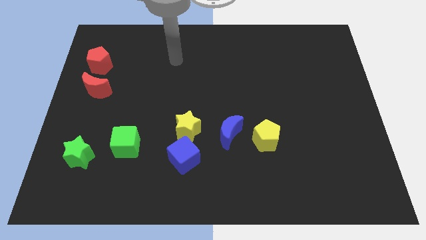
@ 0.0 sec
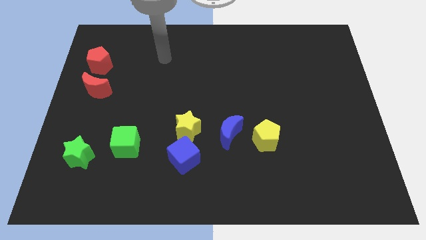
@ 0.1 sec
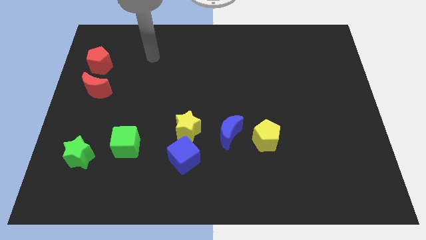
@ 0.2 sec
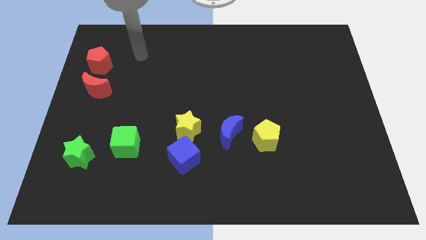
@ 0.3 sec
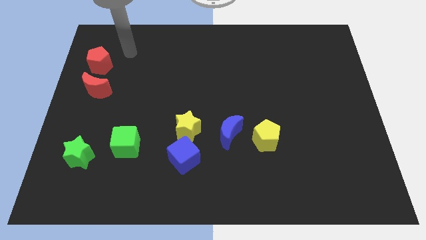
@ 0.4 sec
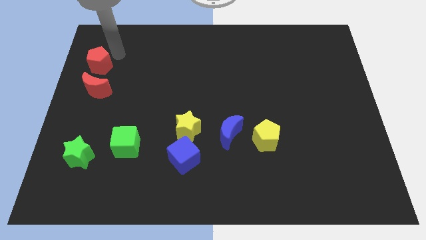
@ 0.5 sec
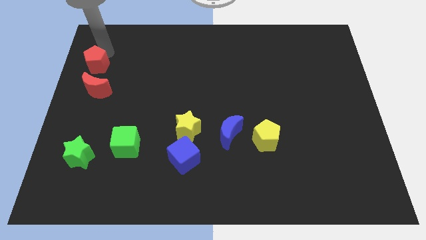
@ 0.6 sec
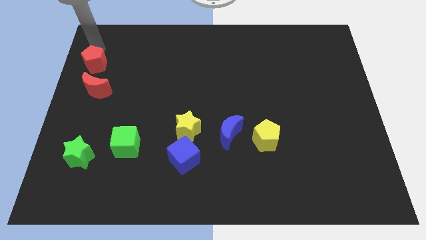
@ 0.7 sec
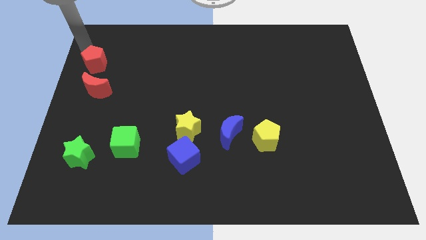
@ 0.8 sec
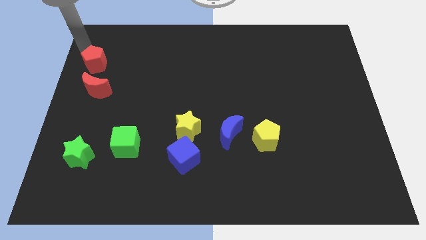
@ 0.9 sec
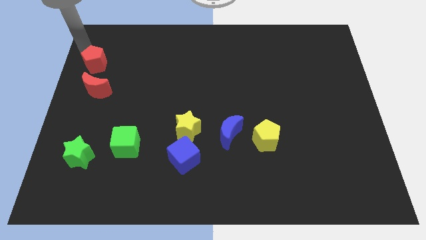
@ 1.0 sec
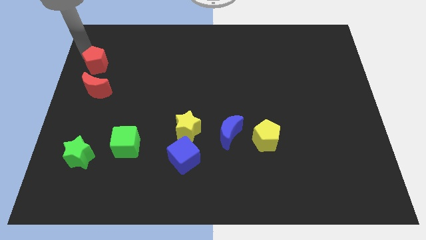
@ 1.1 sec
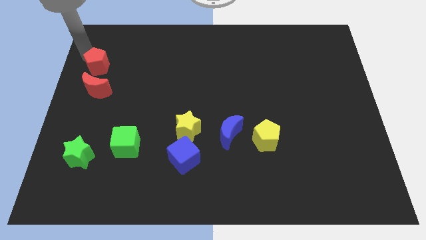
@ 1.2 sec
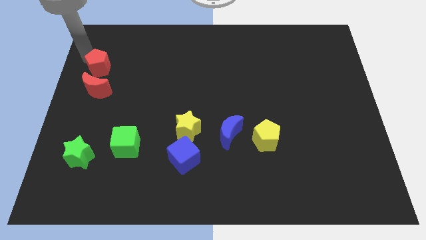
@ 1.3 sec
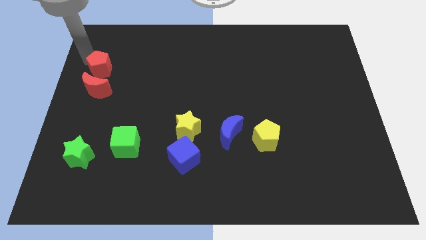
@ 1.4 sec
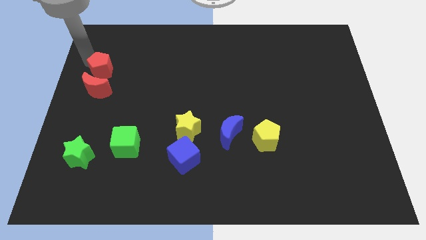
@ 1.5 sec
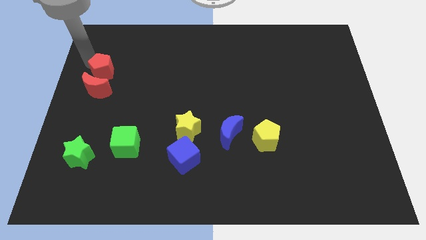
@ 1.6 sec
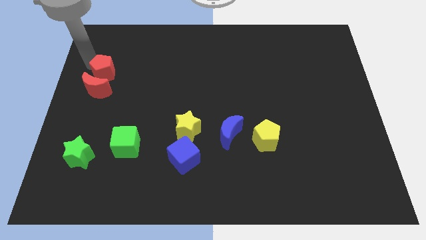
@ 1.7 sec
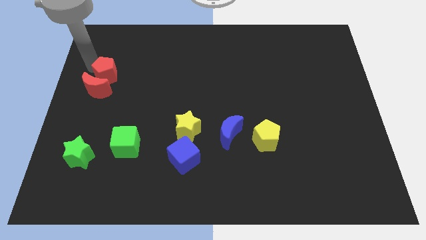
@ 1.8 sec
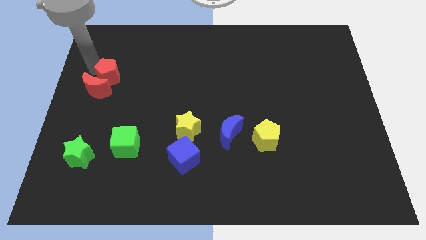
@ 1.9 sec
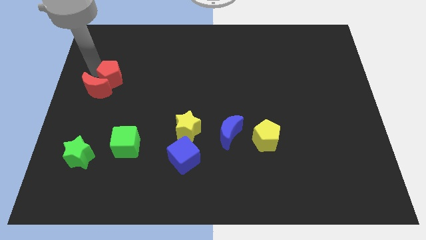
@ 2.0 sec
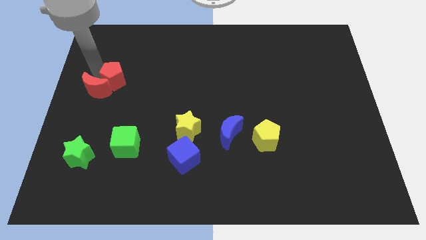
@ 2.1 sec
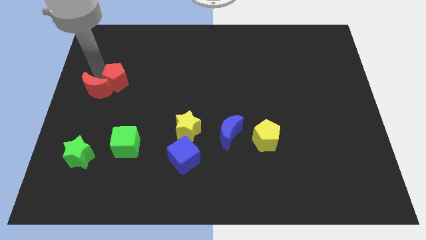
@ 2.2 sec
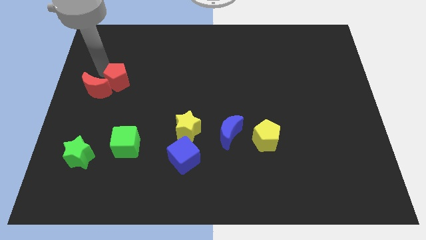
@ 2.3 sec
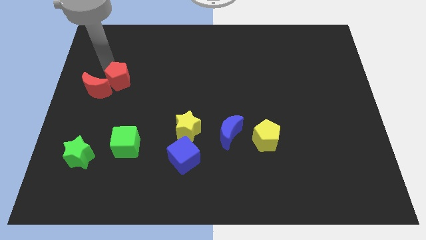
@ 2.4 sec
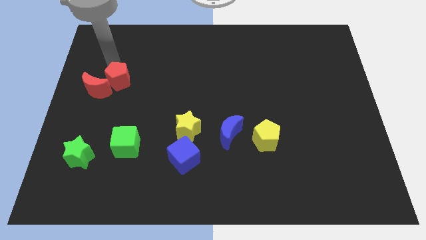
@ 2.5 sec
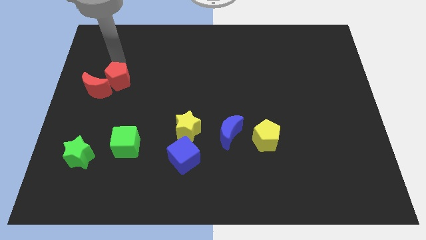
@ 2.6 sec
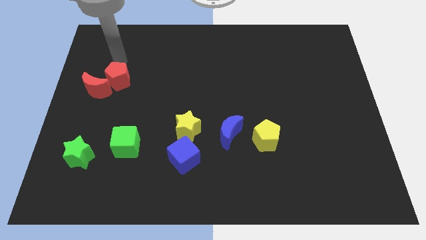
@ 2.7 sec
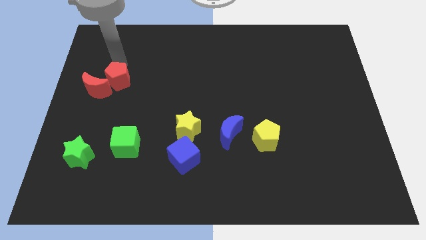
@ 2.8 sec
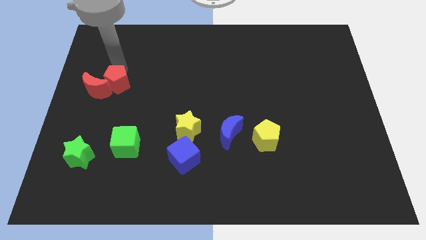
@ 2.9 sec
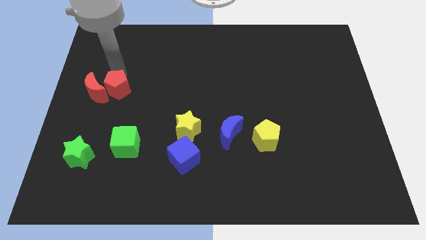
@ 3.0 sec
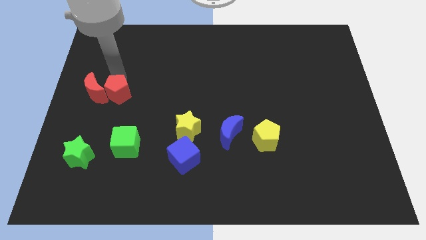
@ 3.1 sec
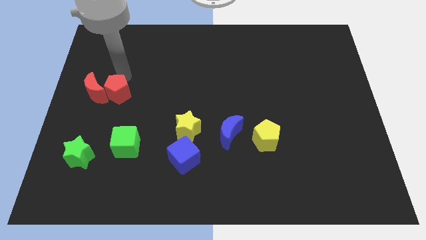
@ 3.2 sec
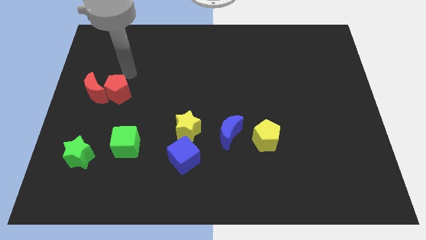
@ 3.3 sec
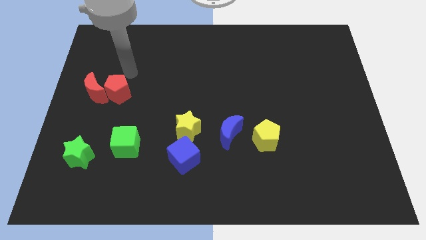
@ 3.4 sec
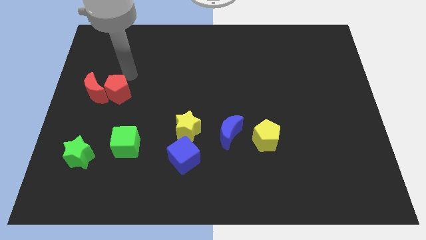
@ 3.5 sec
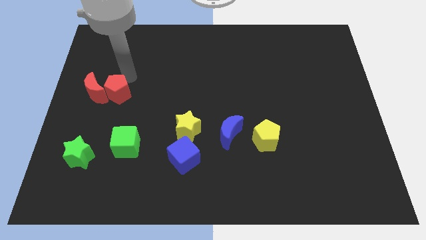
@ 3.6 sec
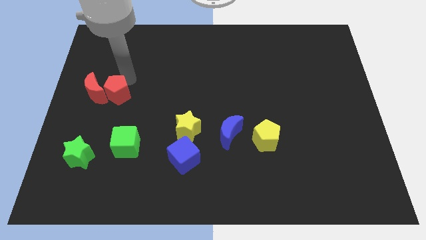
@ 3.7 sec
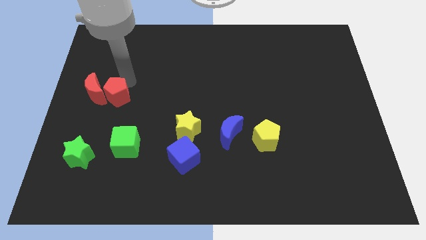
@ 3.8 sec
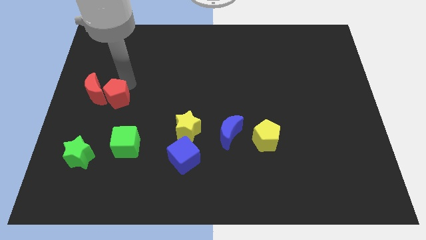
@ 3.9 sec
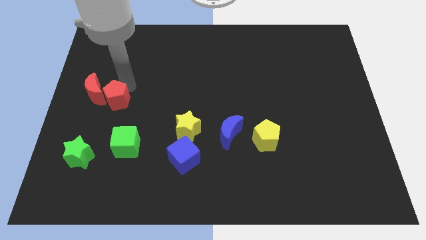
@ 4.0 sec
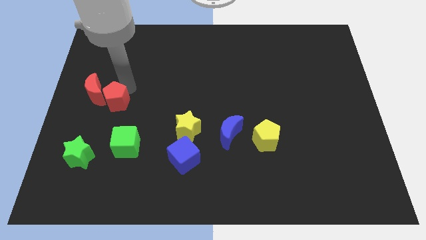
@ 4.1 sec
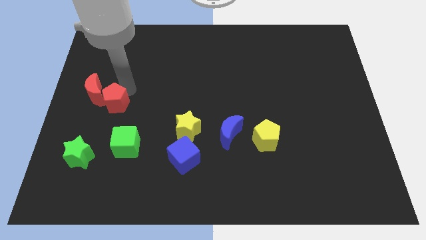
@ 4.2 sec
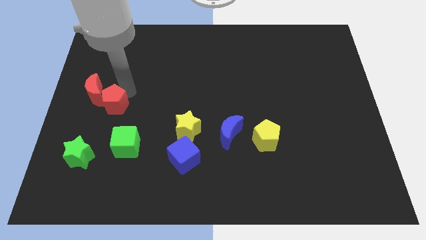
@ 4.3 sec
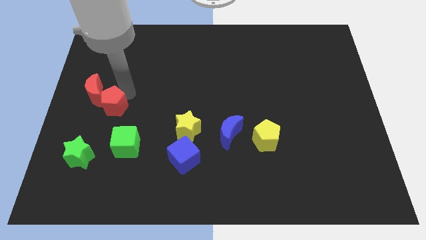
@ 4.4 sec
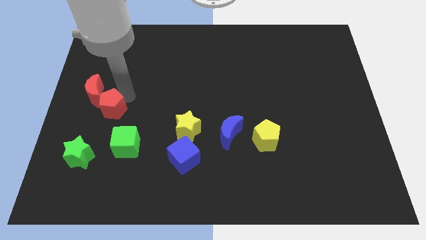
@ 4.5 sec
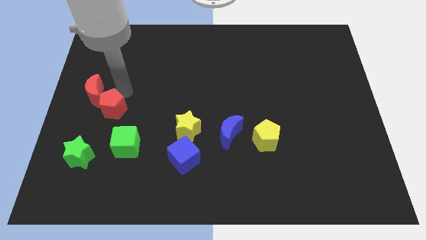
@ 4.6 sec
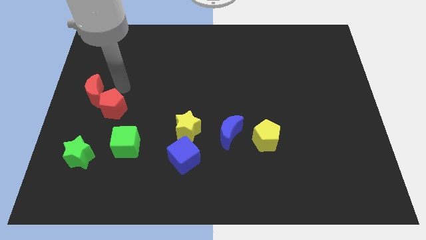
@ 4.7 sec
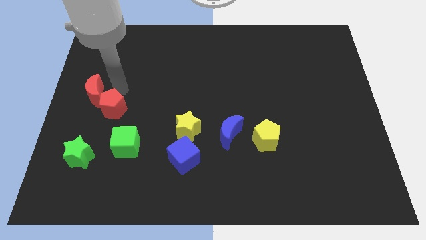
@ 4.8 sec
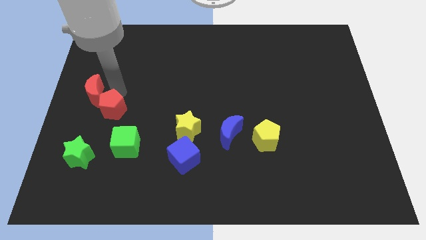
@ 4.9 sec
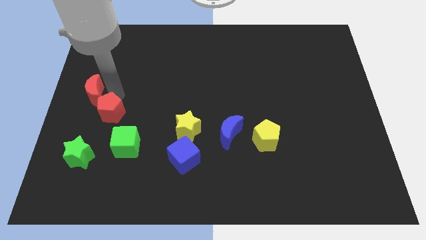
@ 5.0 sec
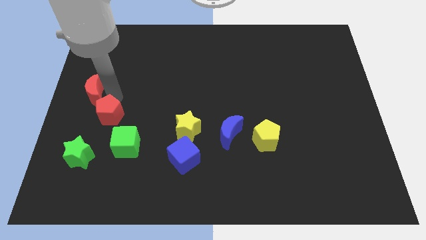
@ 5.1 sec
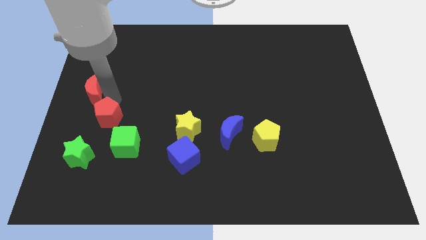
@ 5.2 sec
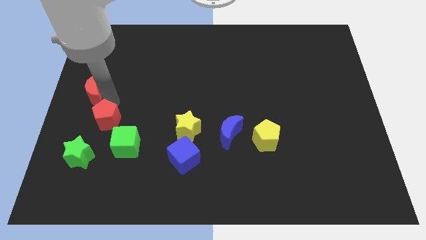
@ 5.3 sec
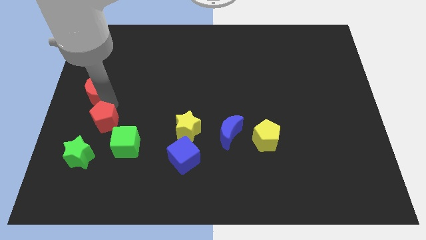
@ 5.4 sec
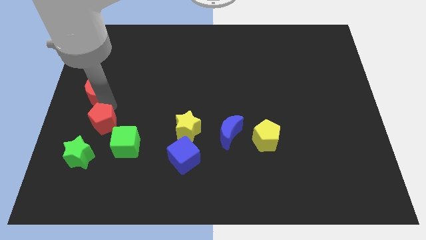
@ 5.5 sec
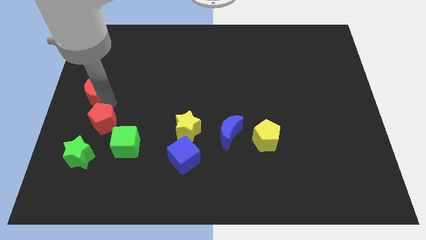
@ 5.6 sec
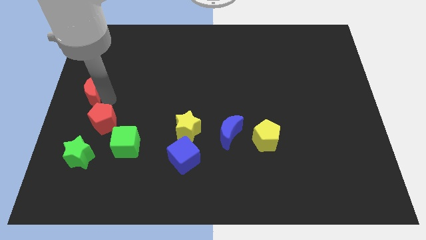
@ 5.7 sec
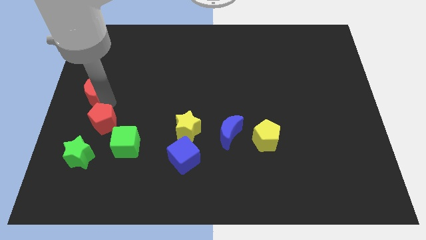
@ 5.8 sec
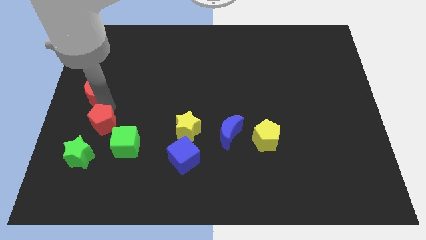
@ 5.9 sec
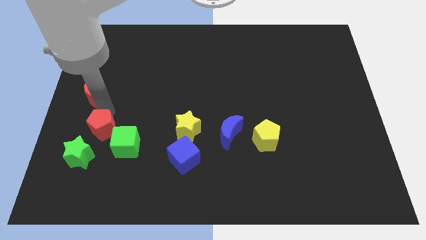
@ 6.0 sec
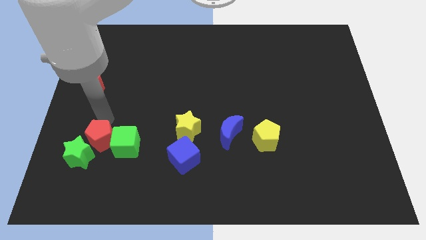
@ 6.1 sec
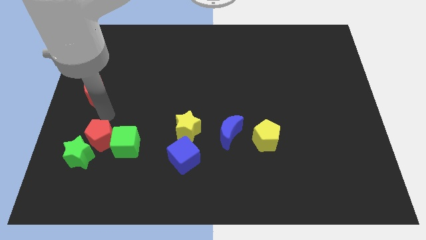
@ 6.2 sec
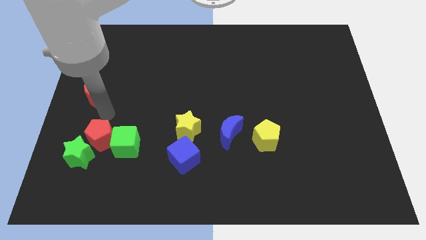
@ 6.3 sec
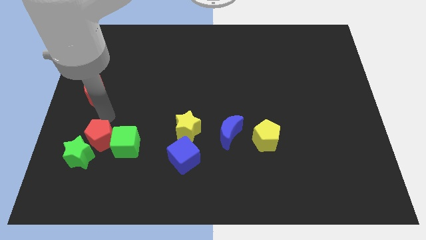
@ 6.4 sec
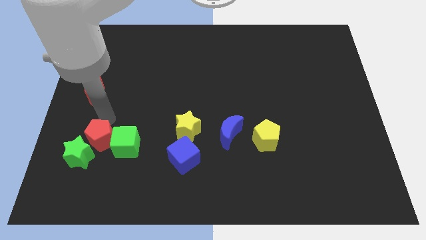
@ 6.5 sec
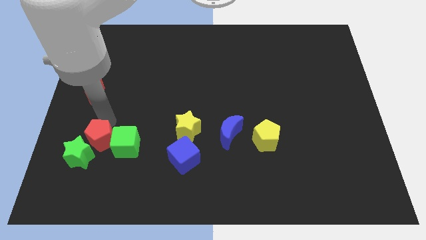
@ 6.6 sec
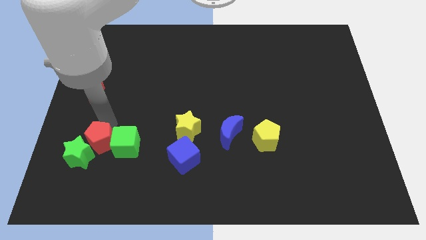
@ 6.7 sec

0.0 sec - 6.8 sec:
push the red pentagon to the bottom left of the green cube
